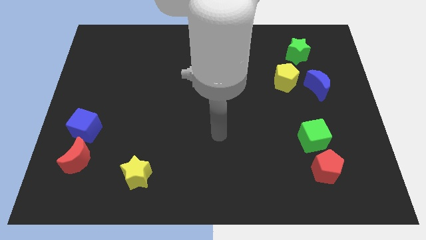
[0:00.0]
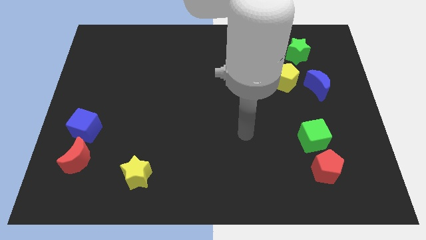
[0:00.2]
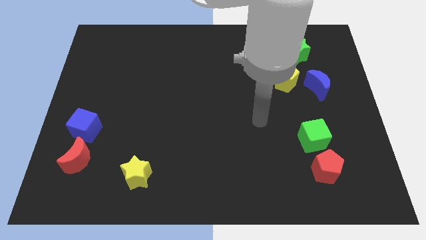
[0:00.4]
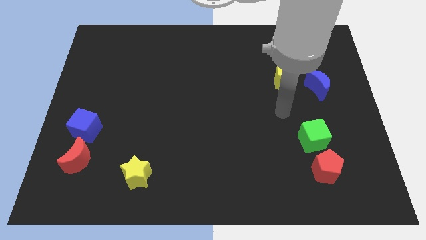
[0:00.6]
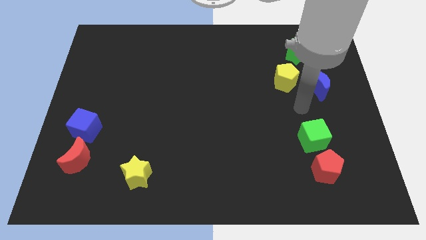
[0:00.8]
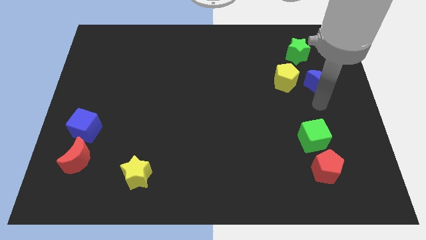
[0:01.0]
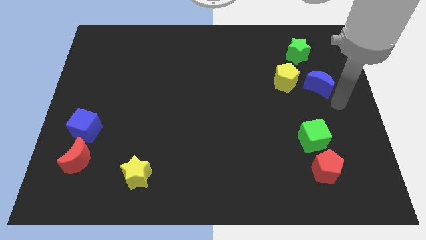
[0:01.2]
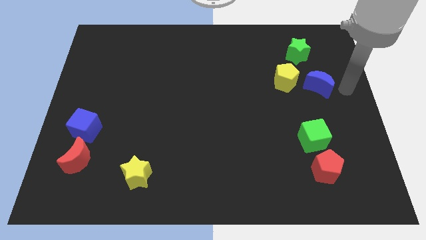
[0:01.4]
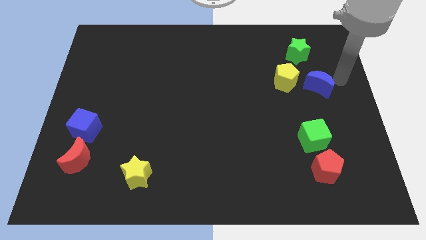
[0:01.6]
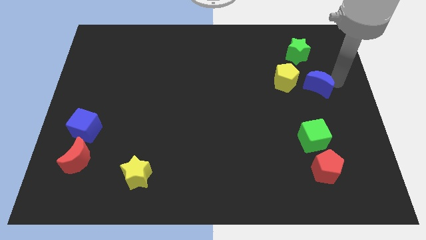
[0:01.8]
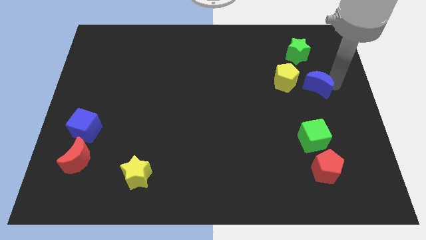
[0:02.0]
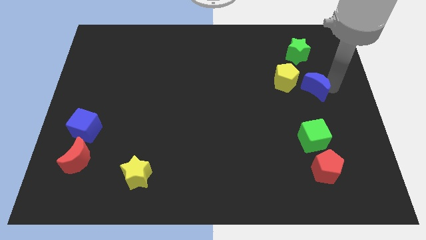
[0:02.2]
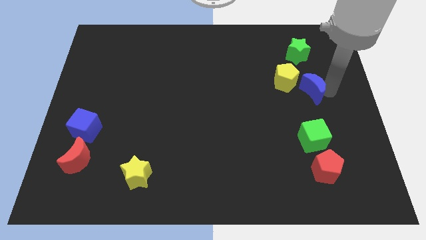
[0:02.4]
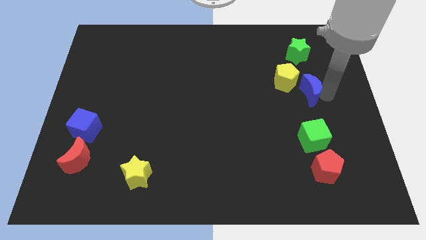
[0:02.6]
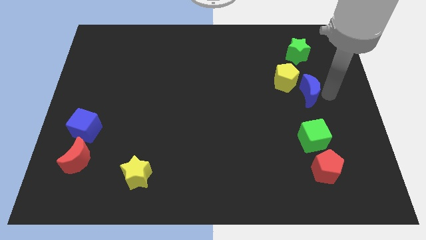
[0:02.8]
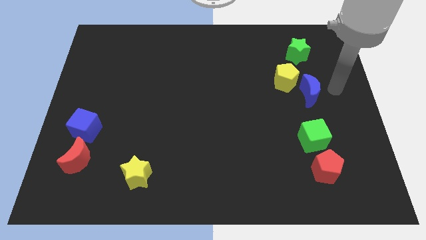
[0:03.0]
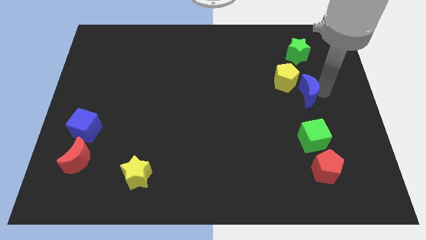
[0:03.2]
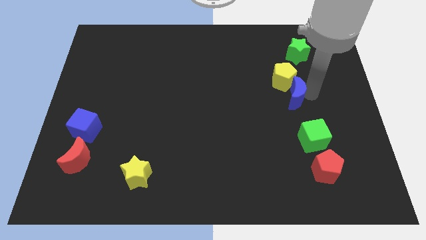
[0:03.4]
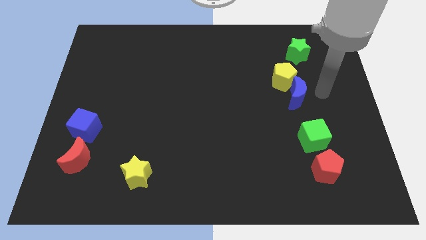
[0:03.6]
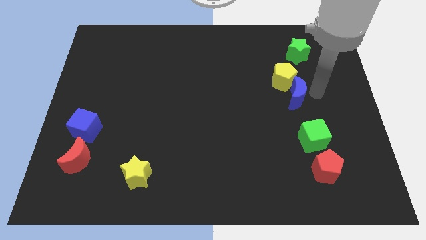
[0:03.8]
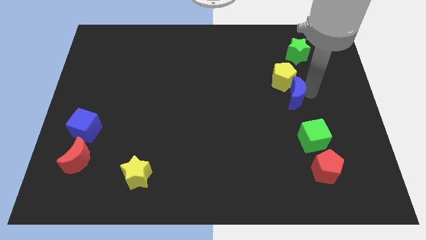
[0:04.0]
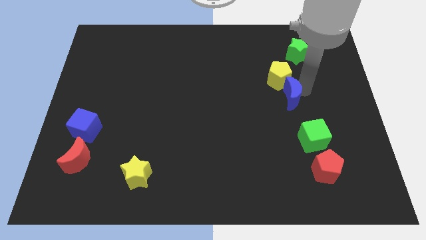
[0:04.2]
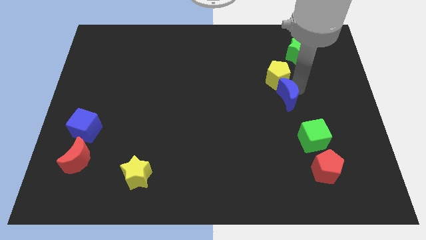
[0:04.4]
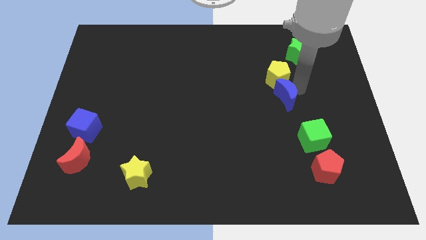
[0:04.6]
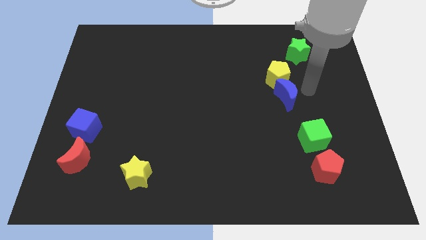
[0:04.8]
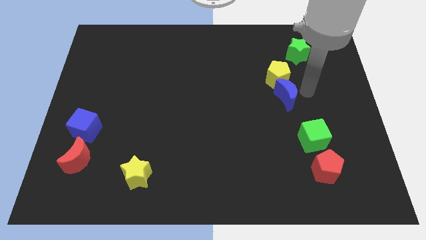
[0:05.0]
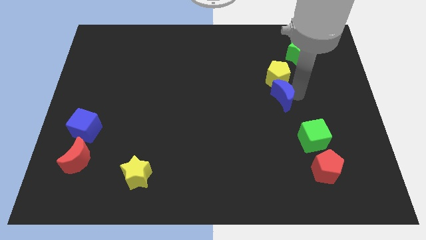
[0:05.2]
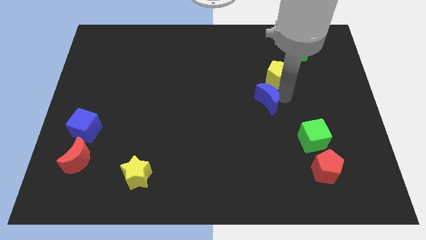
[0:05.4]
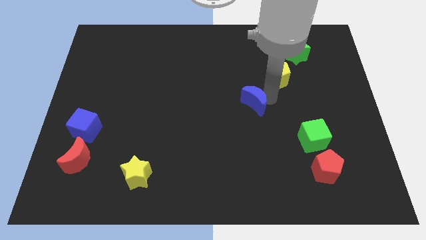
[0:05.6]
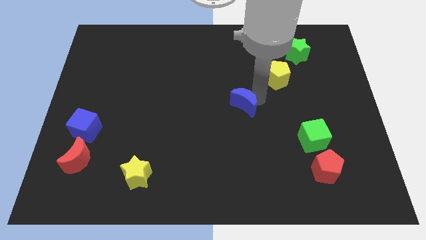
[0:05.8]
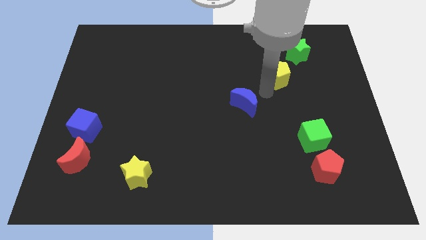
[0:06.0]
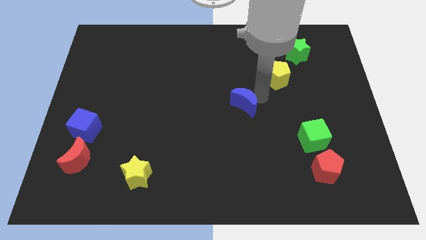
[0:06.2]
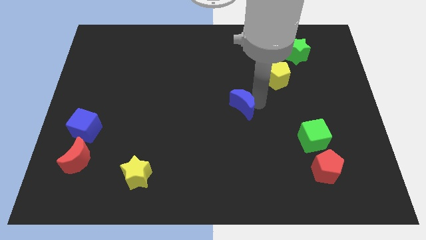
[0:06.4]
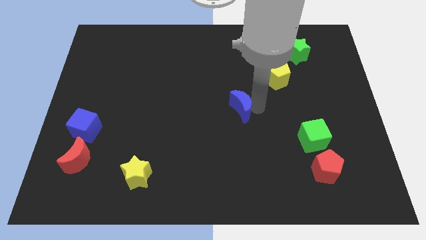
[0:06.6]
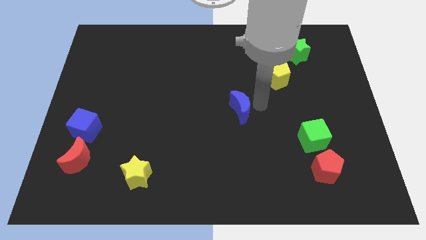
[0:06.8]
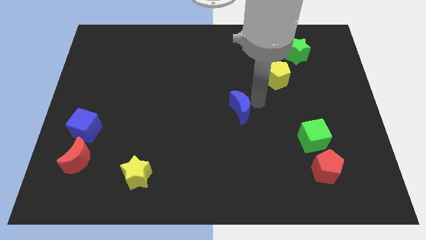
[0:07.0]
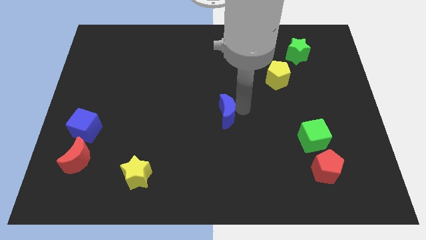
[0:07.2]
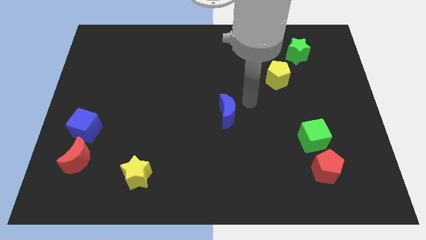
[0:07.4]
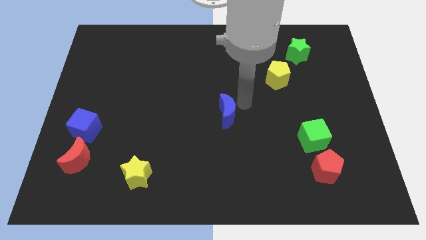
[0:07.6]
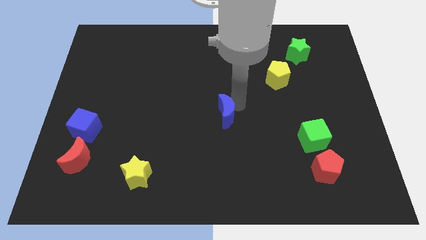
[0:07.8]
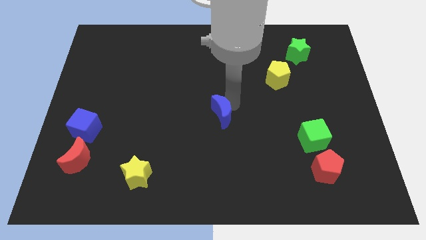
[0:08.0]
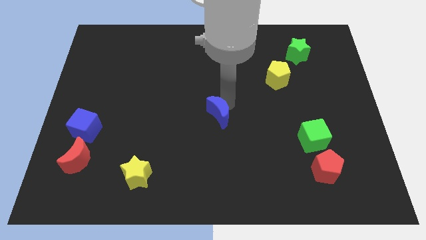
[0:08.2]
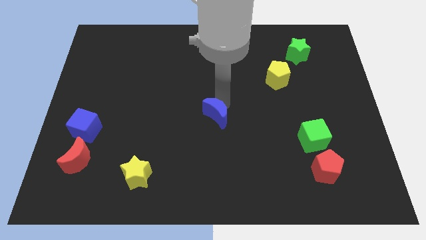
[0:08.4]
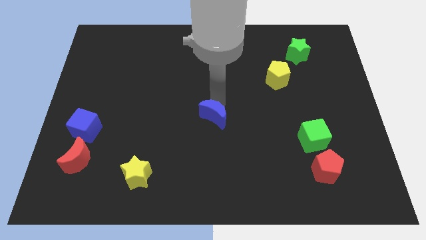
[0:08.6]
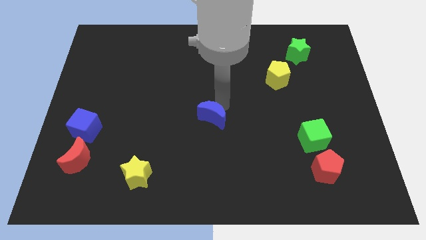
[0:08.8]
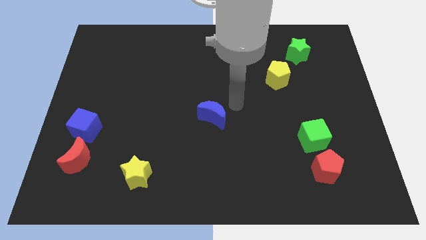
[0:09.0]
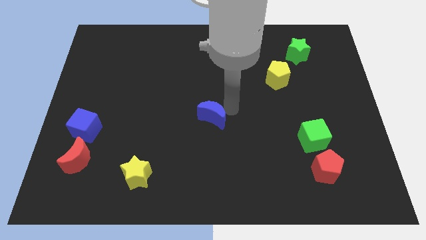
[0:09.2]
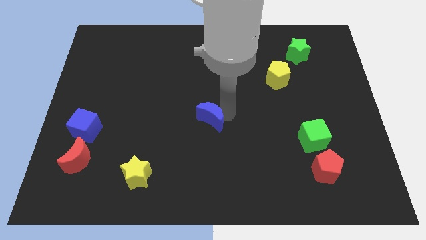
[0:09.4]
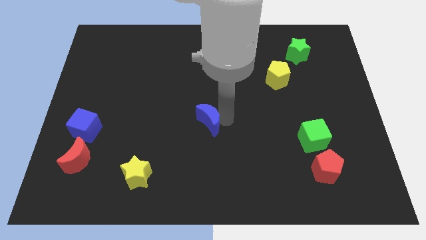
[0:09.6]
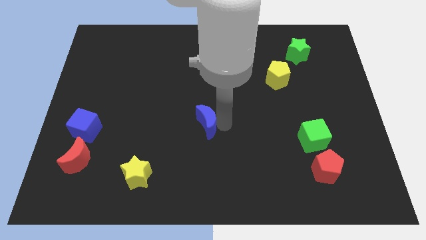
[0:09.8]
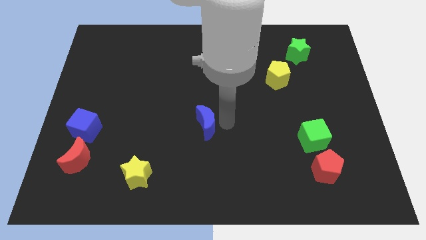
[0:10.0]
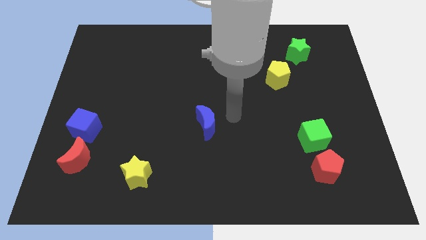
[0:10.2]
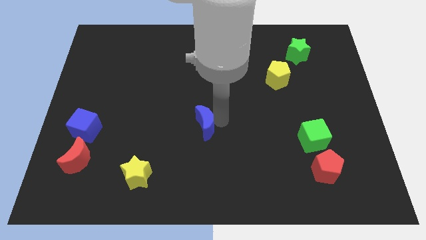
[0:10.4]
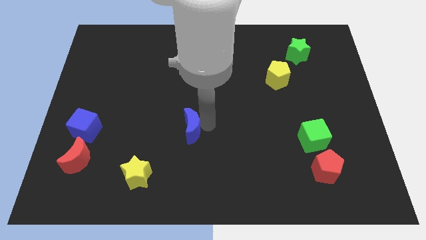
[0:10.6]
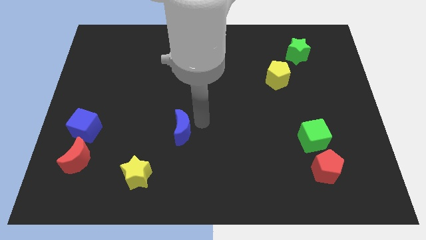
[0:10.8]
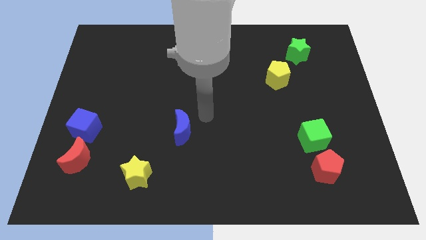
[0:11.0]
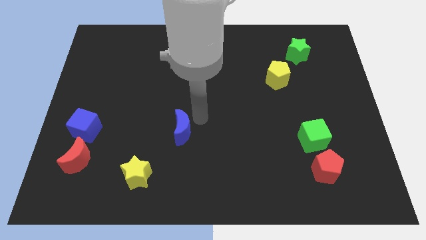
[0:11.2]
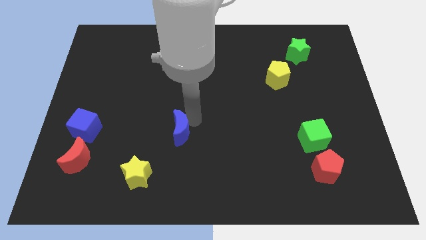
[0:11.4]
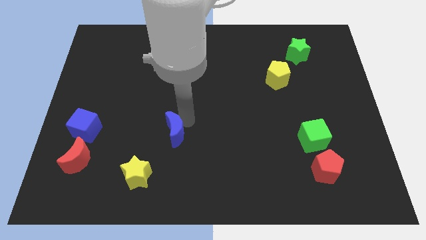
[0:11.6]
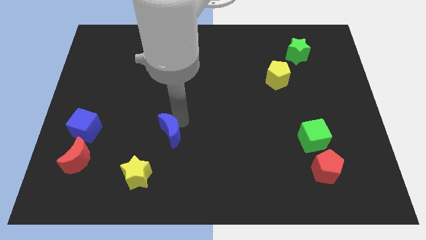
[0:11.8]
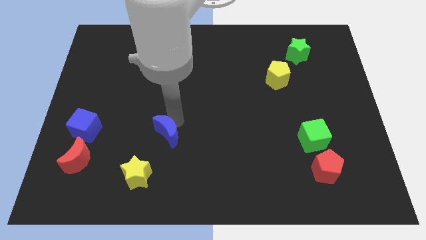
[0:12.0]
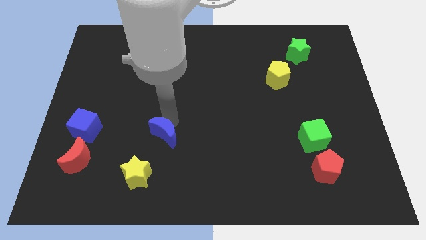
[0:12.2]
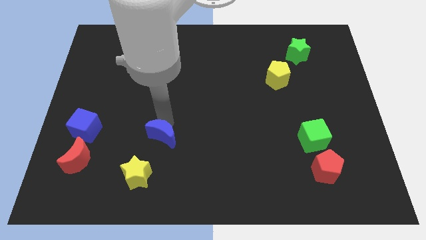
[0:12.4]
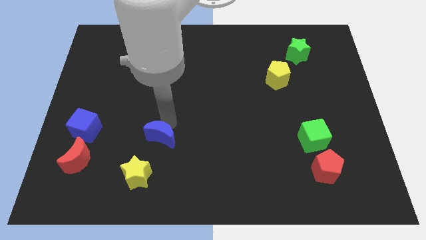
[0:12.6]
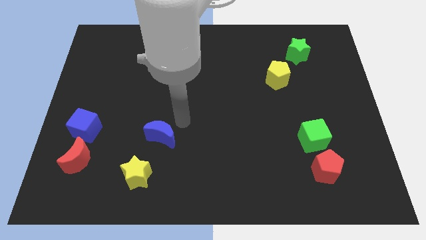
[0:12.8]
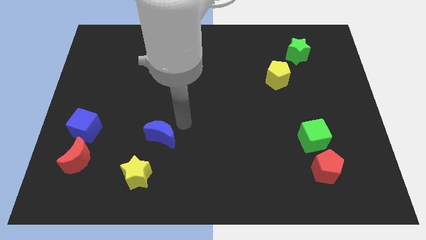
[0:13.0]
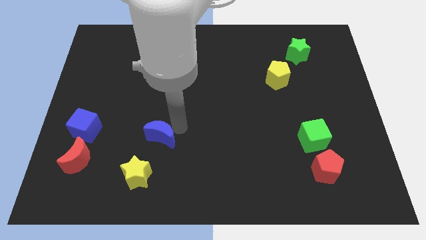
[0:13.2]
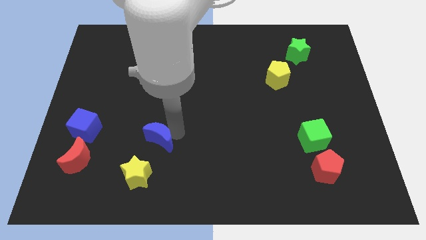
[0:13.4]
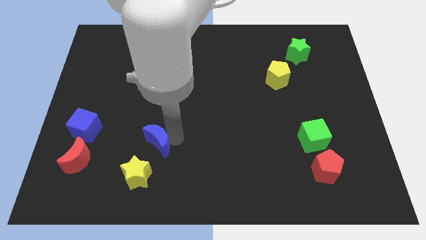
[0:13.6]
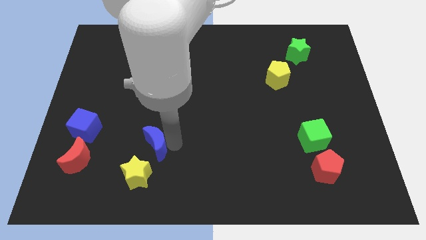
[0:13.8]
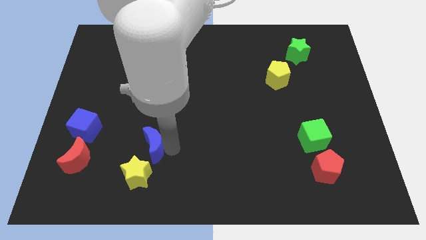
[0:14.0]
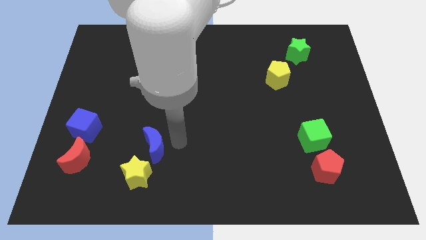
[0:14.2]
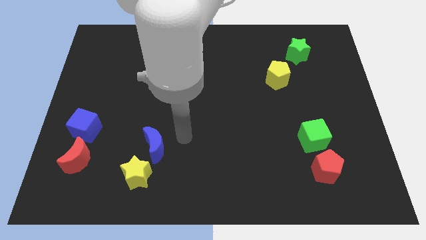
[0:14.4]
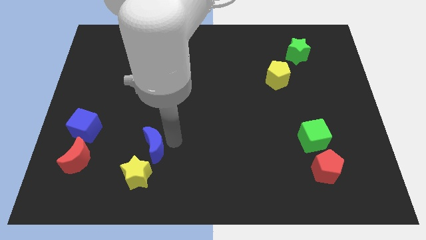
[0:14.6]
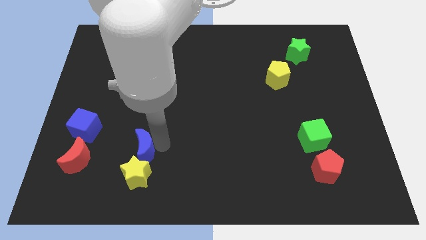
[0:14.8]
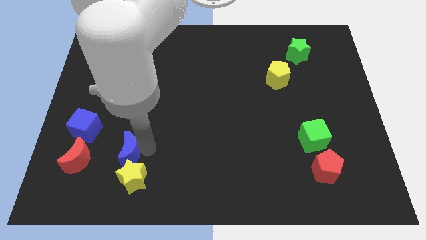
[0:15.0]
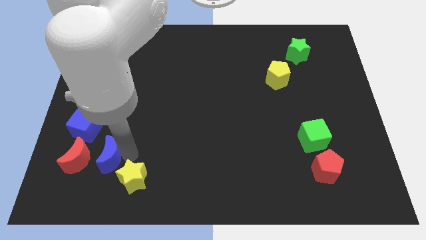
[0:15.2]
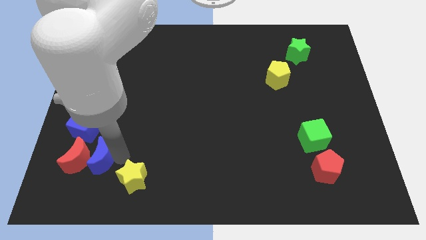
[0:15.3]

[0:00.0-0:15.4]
move the blue moon towards the red moon
